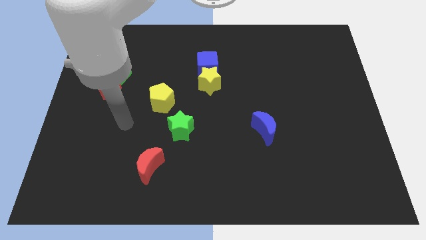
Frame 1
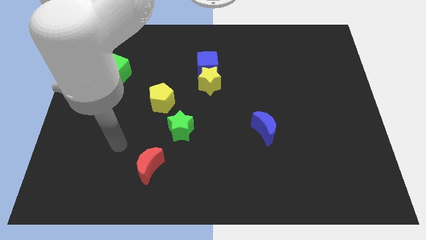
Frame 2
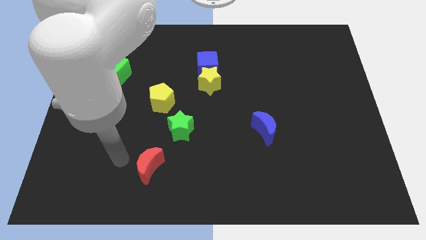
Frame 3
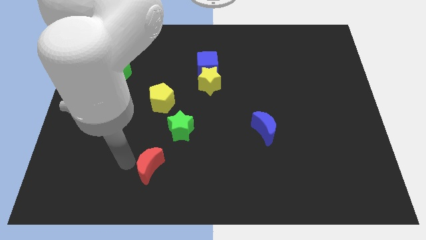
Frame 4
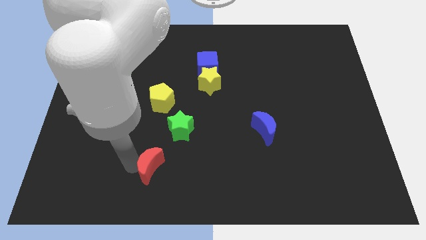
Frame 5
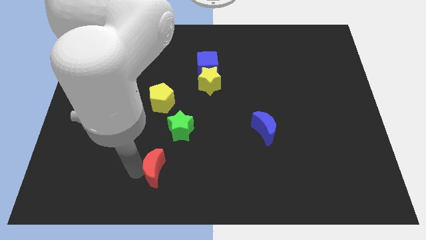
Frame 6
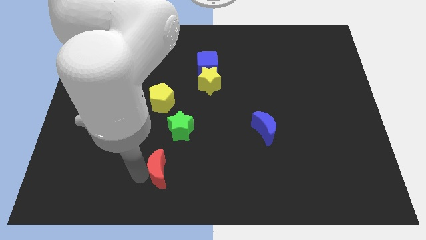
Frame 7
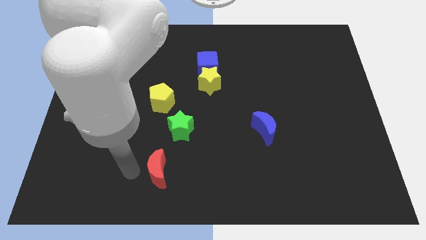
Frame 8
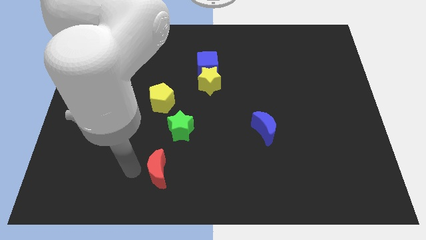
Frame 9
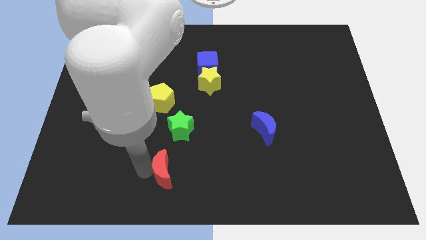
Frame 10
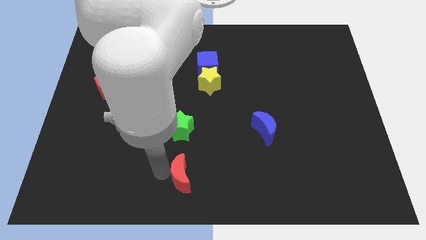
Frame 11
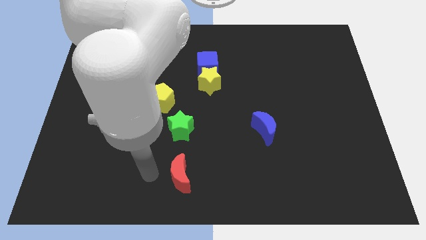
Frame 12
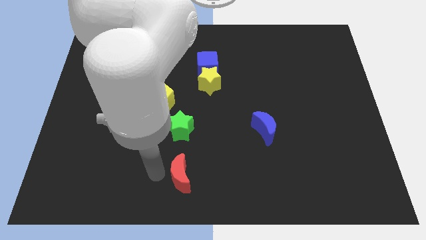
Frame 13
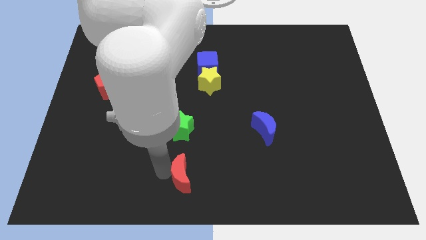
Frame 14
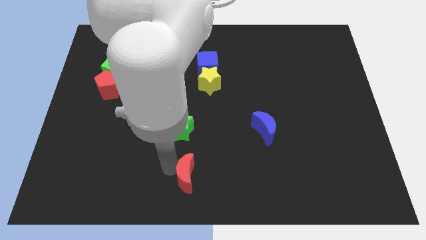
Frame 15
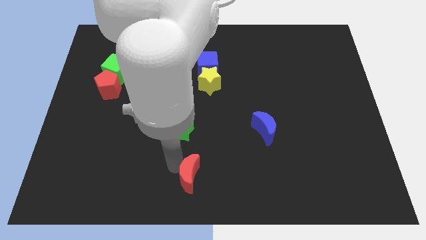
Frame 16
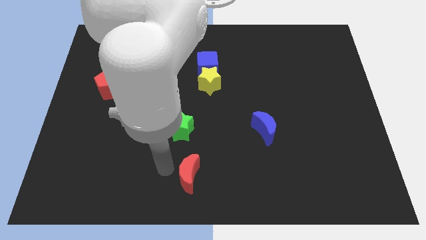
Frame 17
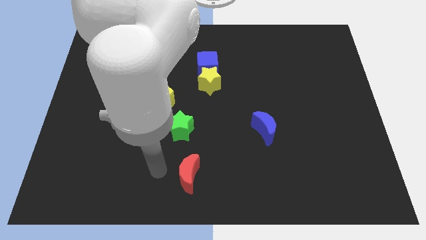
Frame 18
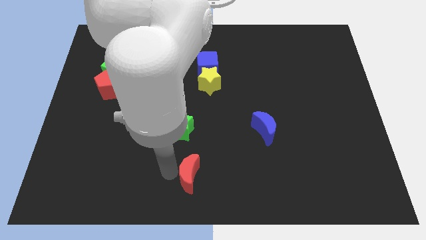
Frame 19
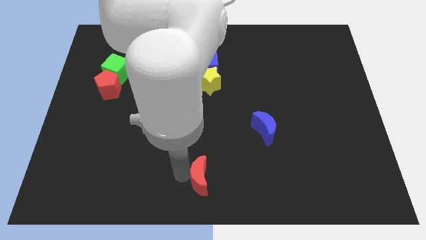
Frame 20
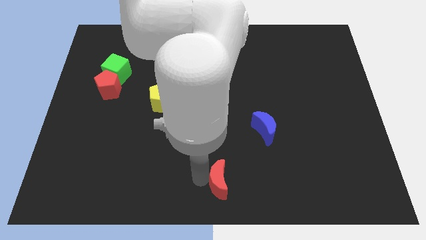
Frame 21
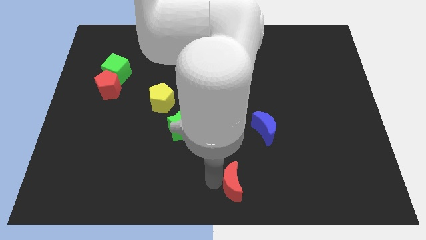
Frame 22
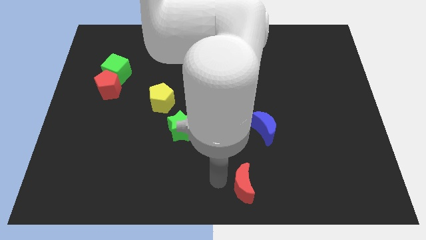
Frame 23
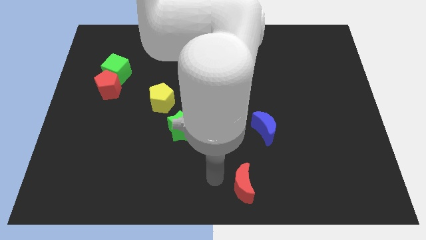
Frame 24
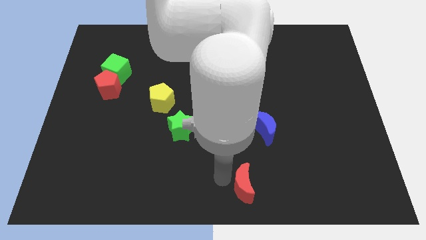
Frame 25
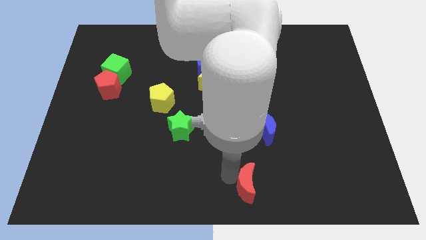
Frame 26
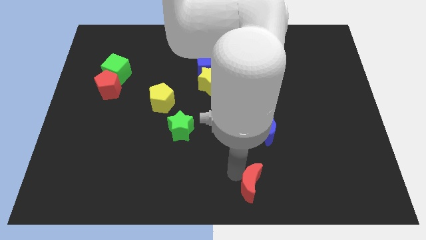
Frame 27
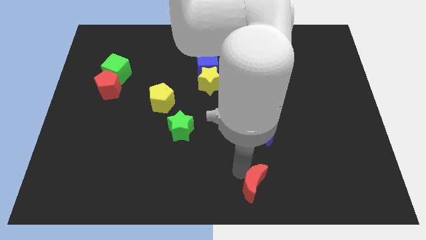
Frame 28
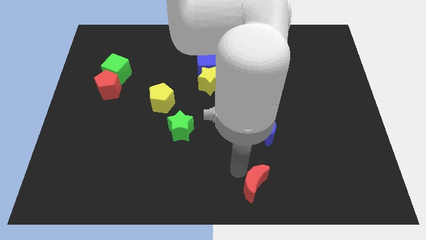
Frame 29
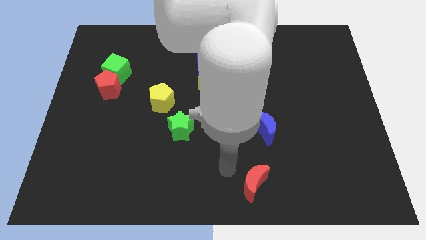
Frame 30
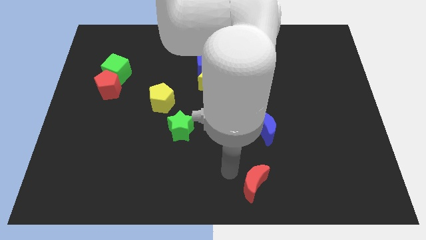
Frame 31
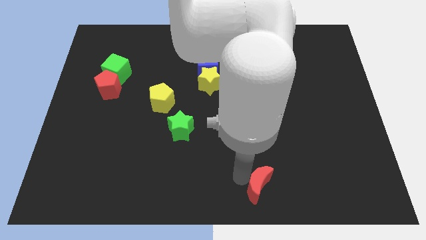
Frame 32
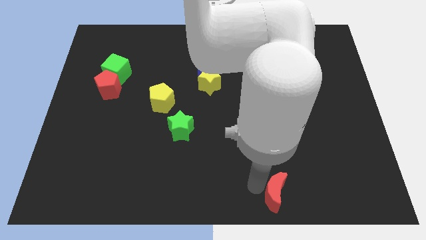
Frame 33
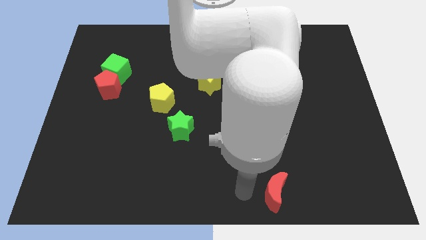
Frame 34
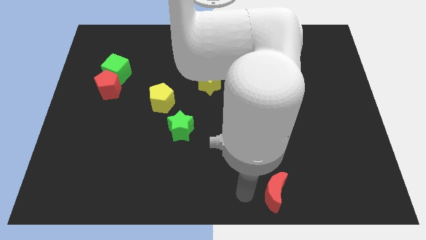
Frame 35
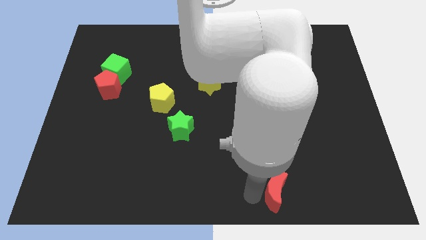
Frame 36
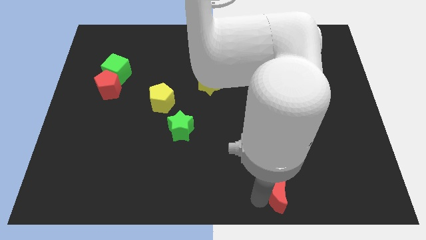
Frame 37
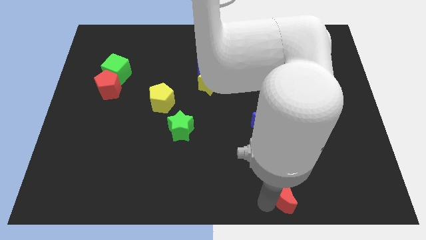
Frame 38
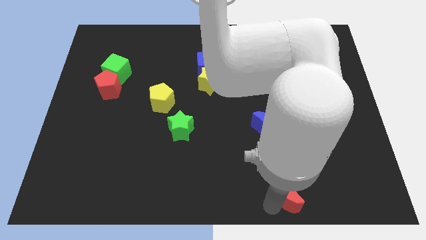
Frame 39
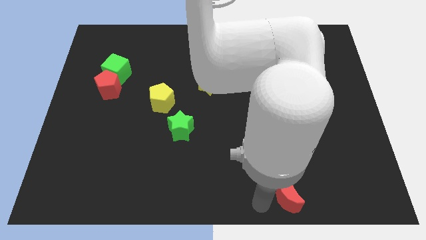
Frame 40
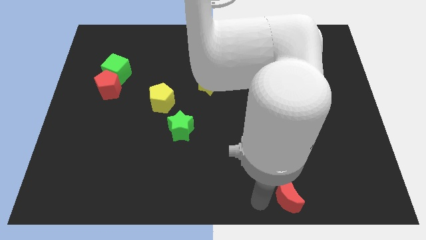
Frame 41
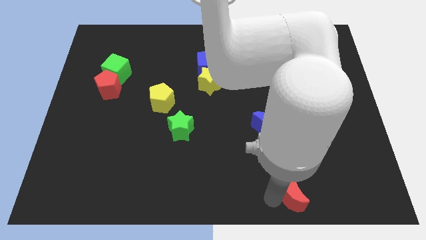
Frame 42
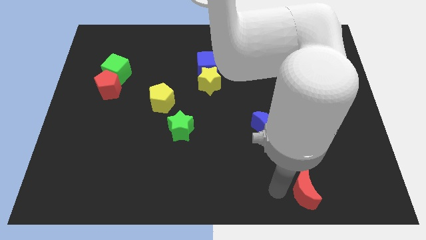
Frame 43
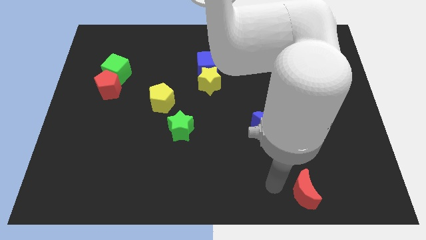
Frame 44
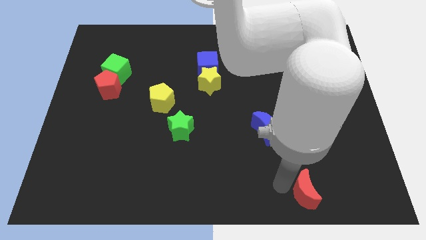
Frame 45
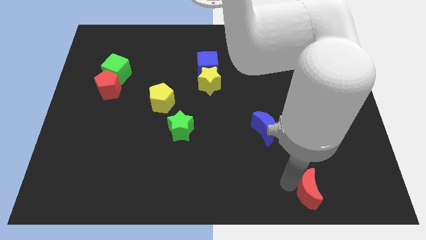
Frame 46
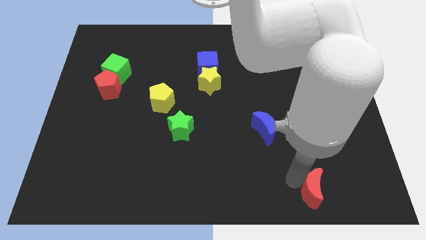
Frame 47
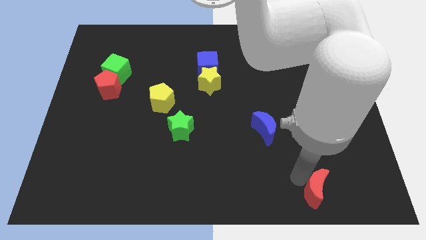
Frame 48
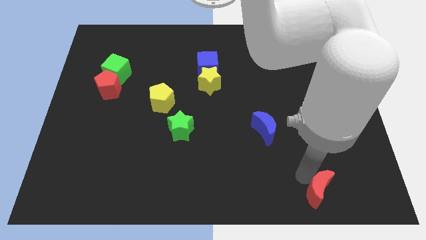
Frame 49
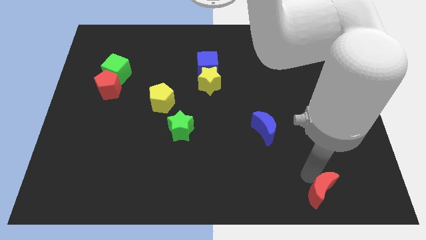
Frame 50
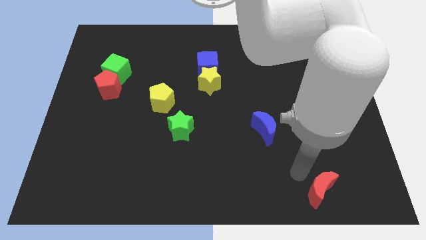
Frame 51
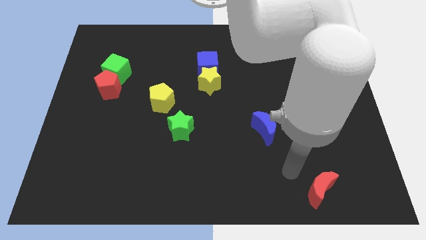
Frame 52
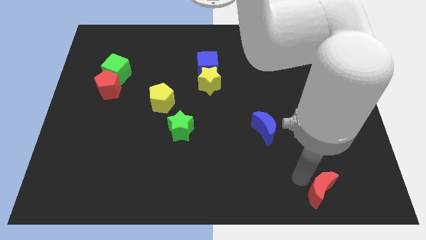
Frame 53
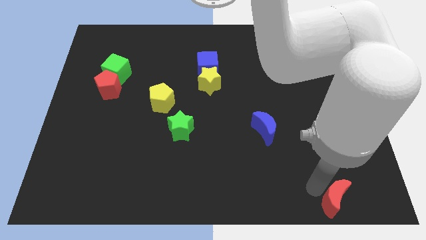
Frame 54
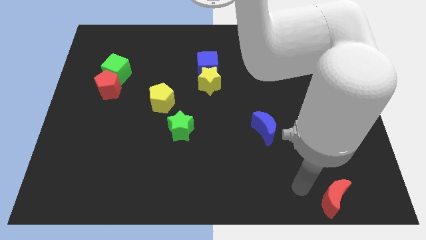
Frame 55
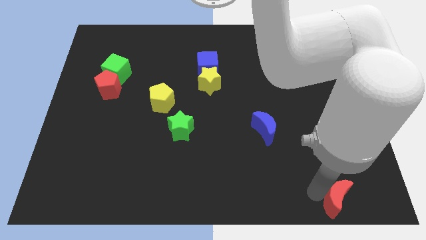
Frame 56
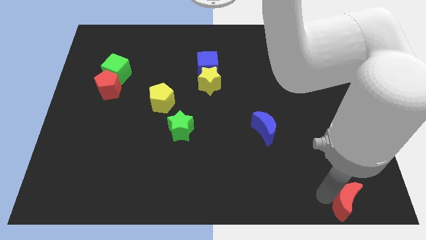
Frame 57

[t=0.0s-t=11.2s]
push the red moon to the bottom right

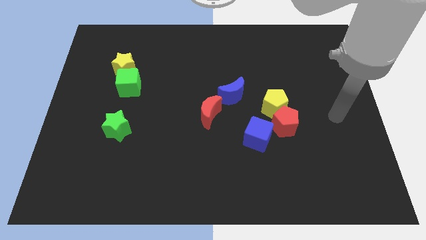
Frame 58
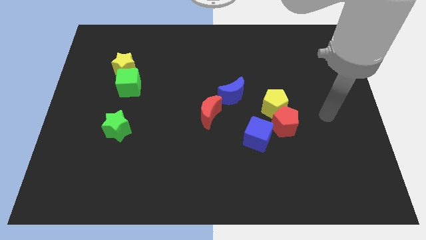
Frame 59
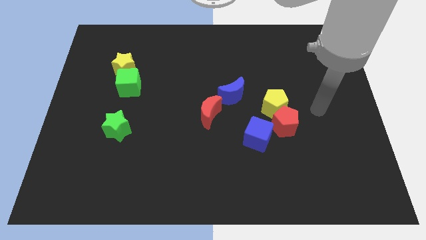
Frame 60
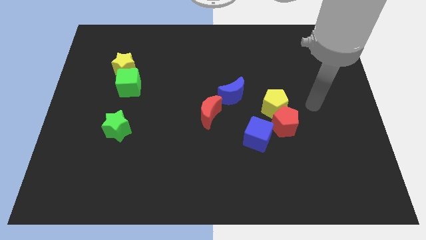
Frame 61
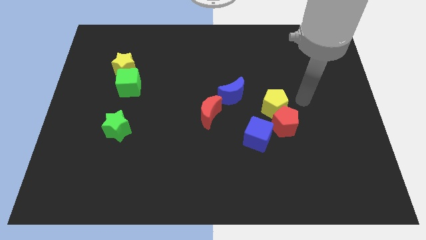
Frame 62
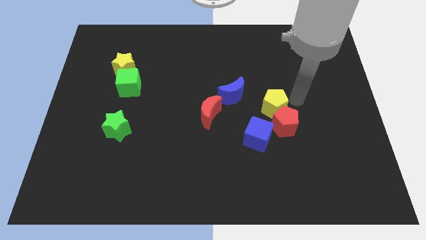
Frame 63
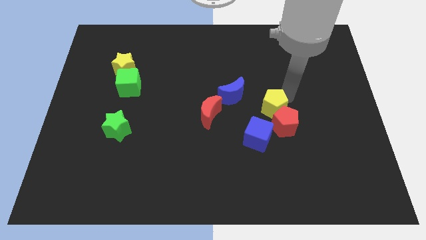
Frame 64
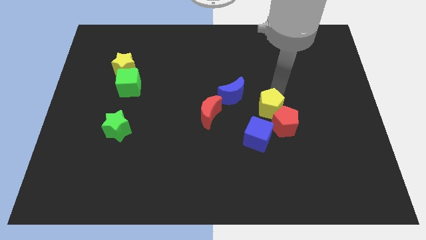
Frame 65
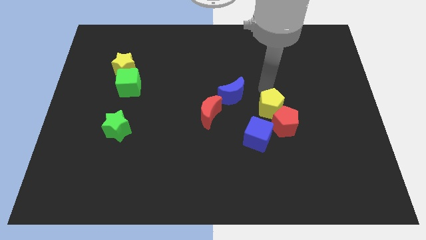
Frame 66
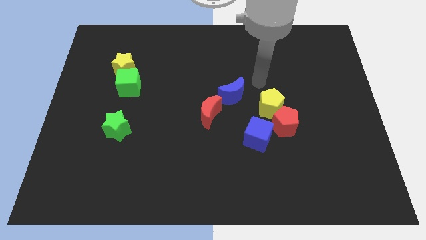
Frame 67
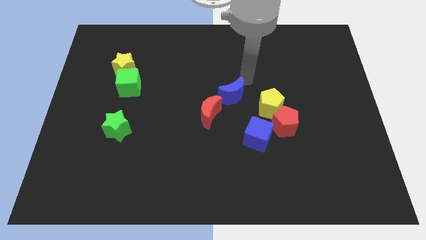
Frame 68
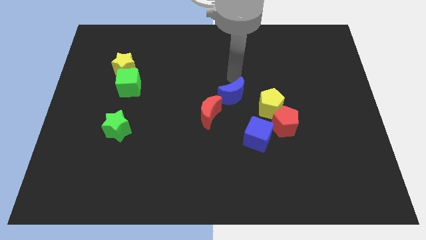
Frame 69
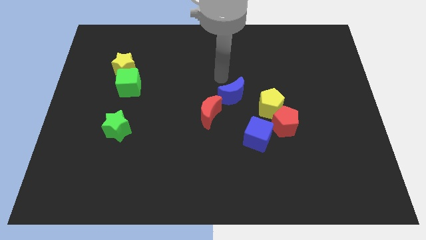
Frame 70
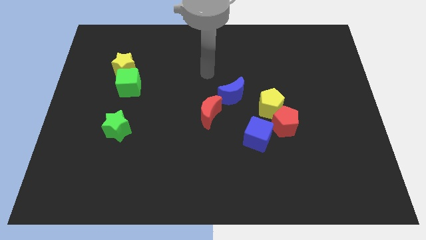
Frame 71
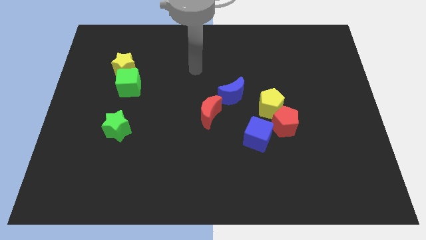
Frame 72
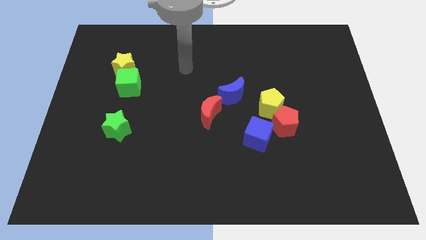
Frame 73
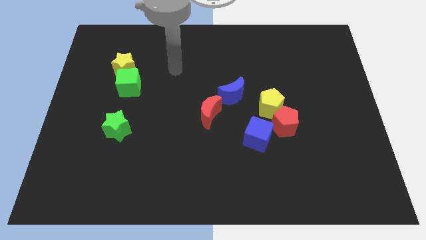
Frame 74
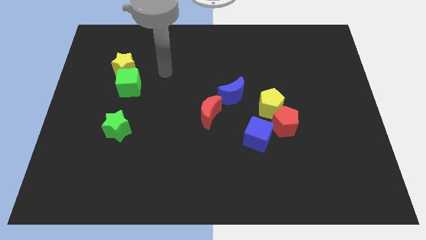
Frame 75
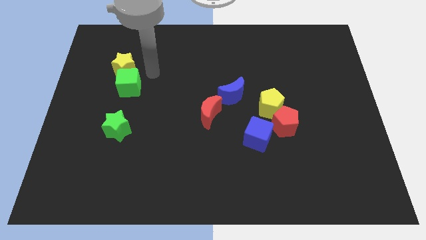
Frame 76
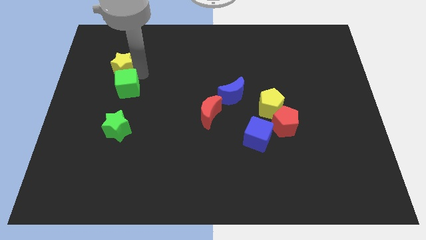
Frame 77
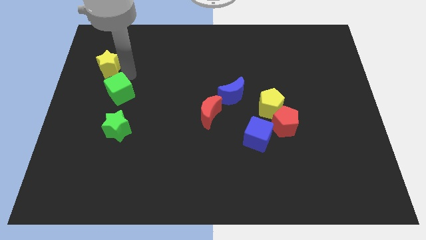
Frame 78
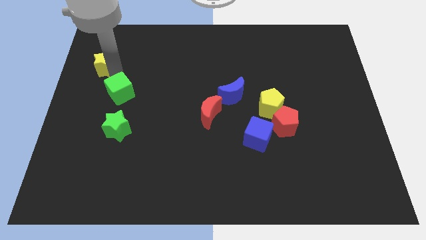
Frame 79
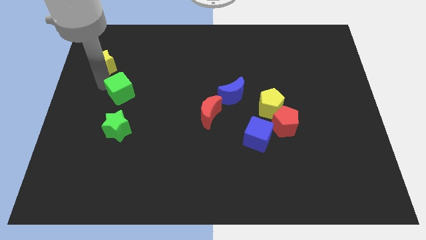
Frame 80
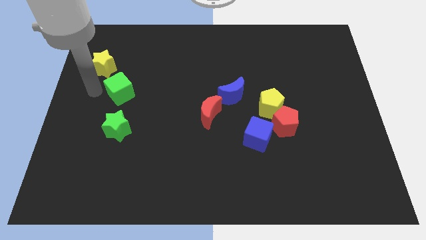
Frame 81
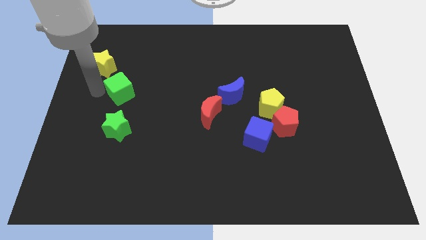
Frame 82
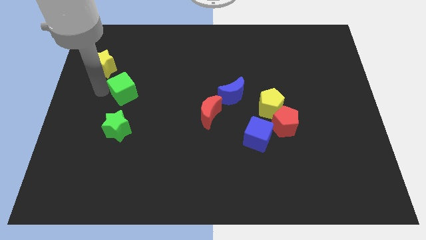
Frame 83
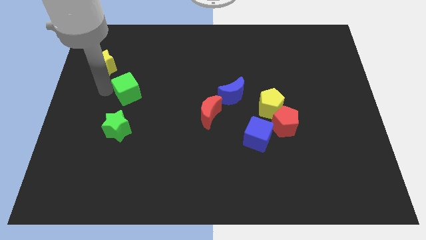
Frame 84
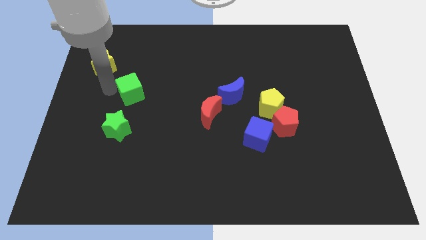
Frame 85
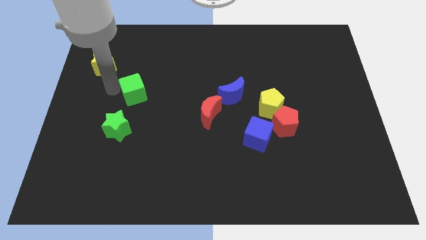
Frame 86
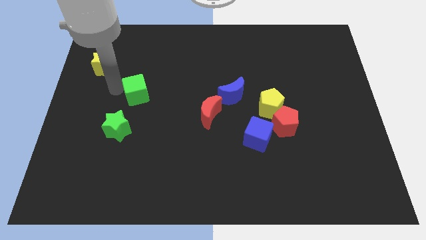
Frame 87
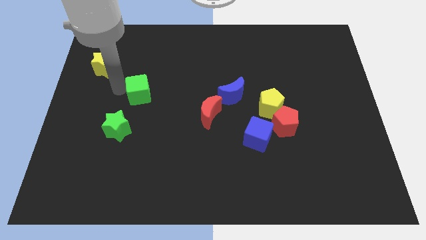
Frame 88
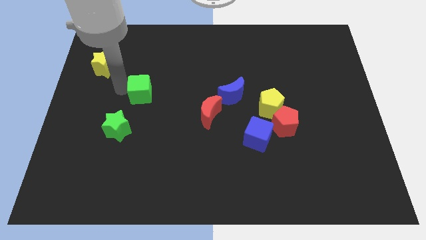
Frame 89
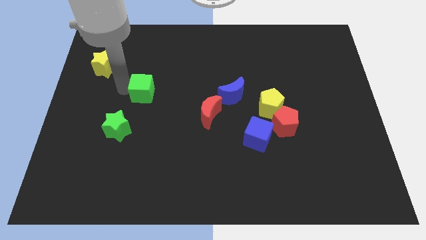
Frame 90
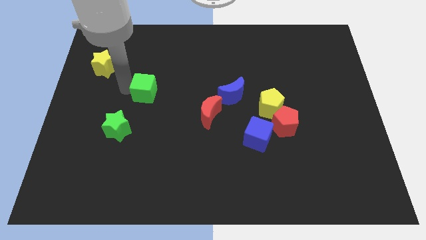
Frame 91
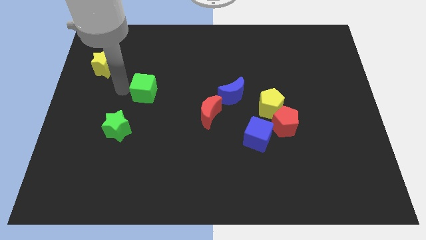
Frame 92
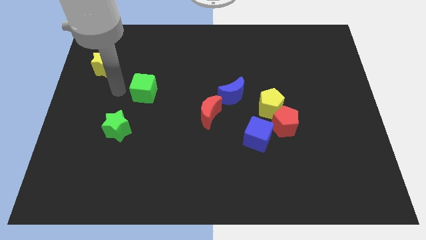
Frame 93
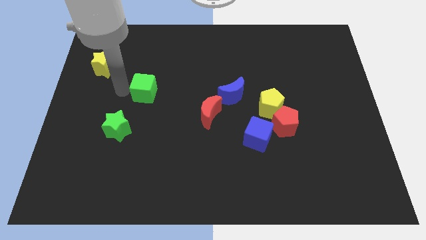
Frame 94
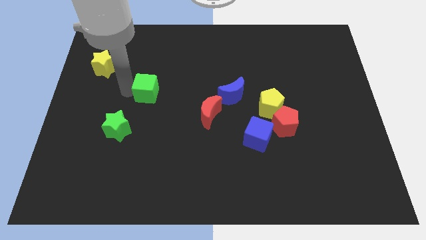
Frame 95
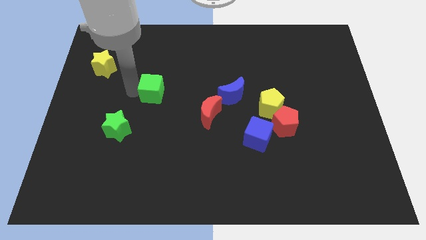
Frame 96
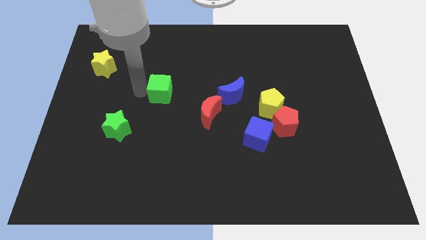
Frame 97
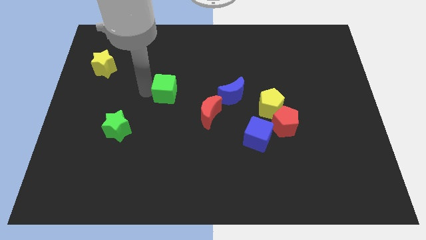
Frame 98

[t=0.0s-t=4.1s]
push the green cube to the middle of the board
